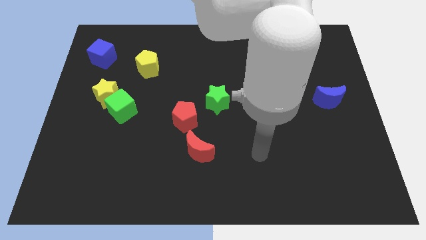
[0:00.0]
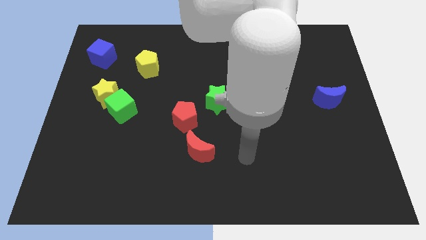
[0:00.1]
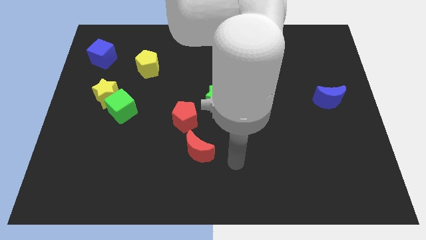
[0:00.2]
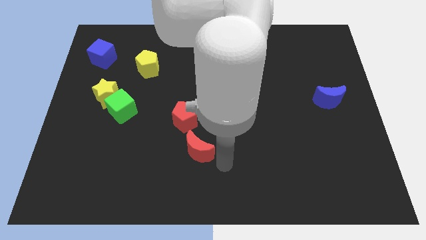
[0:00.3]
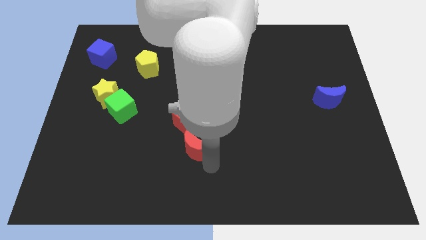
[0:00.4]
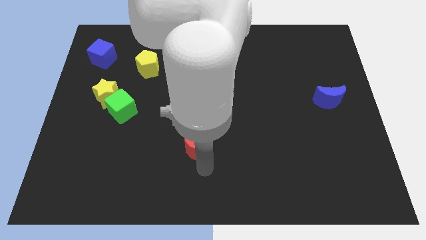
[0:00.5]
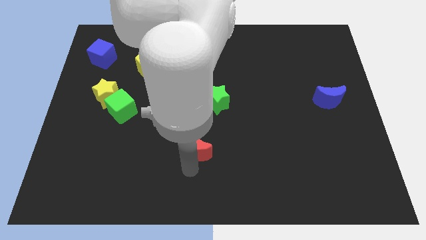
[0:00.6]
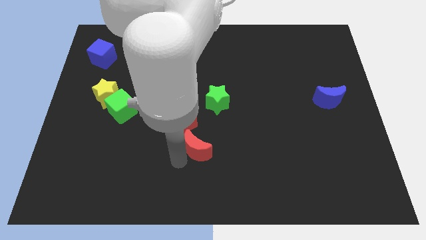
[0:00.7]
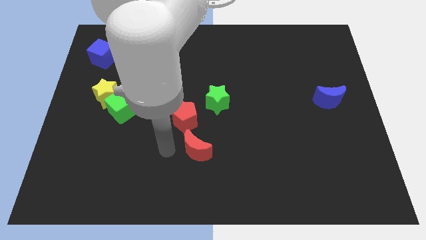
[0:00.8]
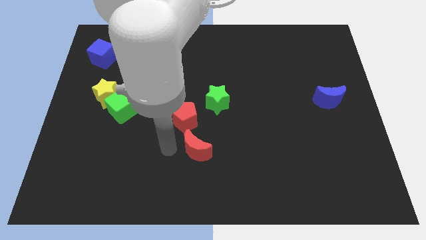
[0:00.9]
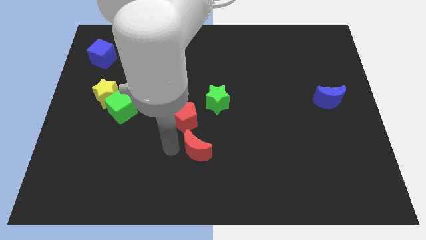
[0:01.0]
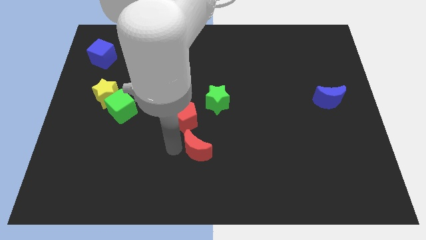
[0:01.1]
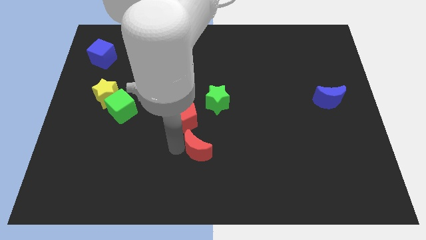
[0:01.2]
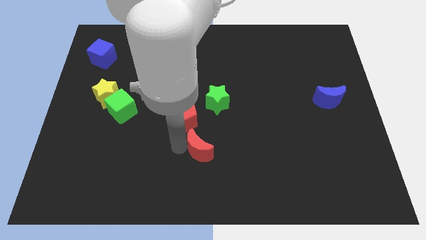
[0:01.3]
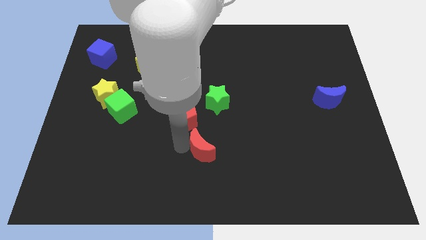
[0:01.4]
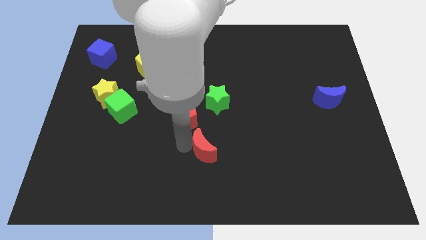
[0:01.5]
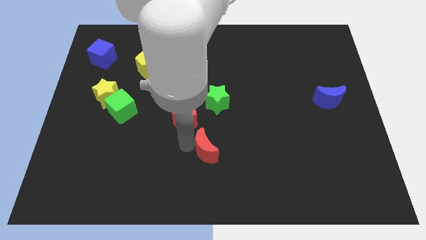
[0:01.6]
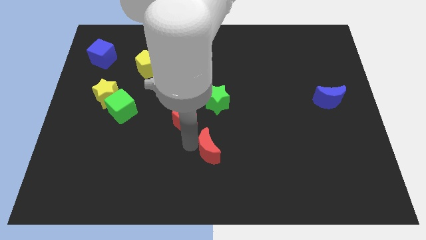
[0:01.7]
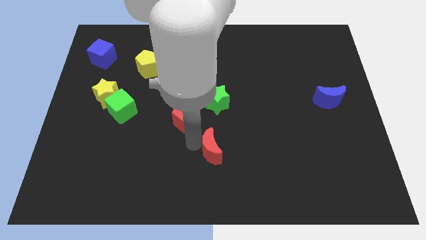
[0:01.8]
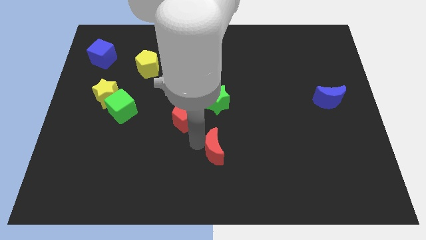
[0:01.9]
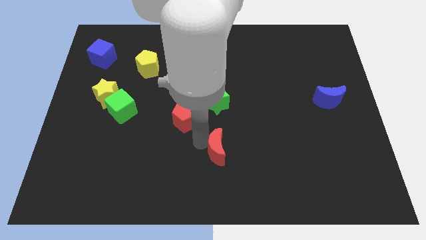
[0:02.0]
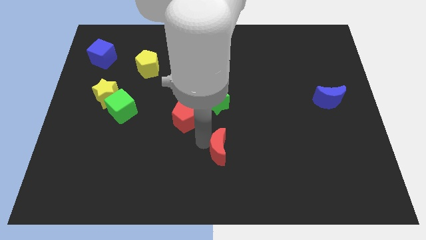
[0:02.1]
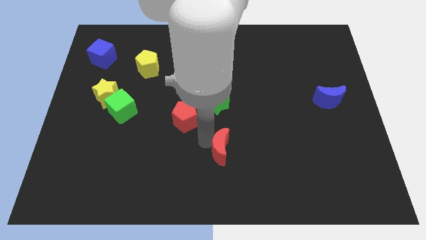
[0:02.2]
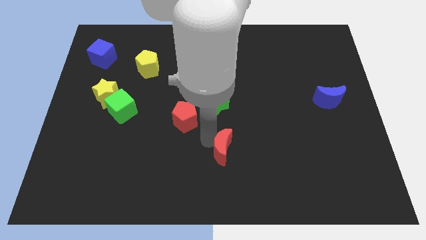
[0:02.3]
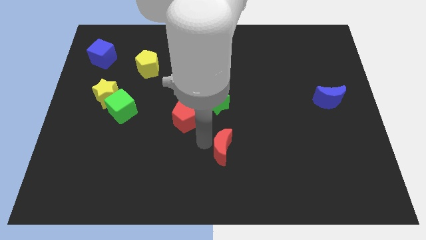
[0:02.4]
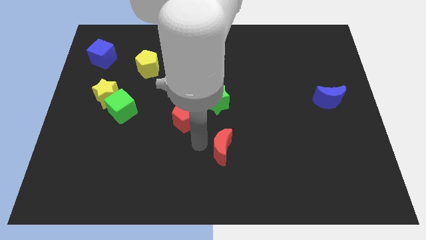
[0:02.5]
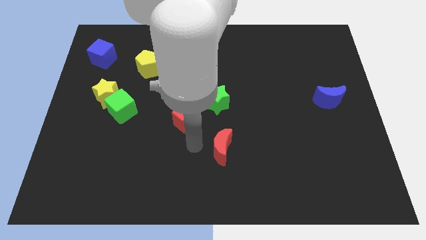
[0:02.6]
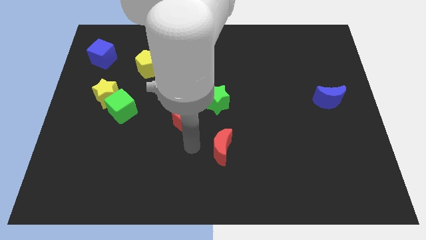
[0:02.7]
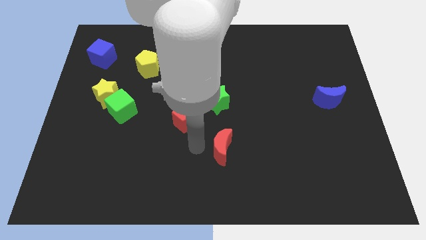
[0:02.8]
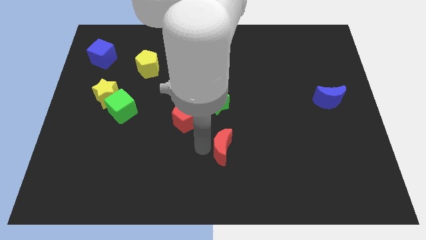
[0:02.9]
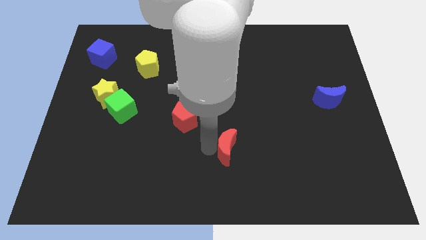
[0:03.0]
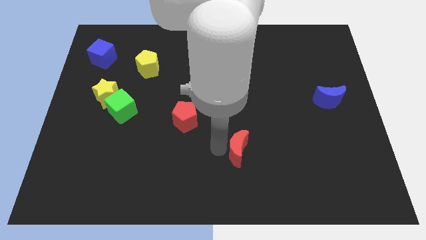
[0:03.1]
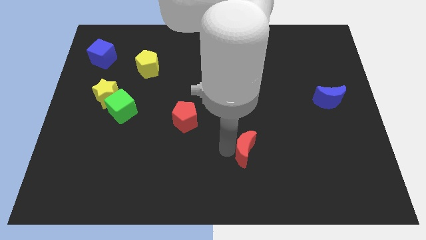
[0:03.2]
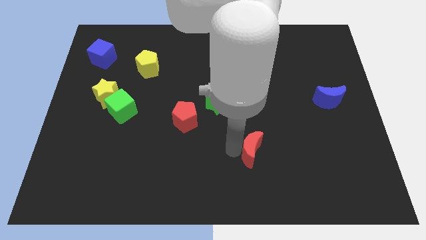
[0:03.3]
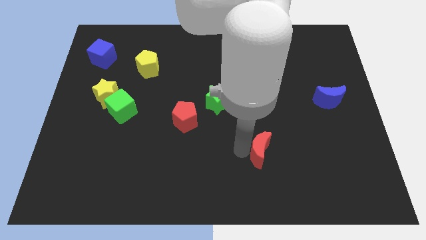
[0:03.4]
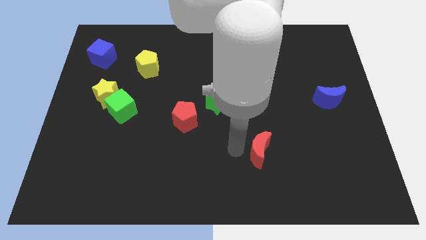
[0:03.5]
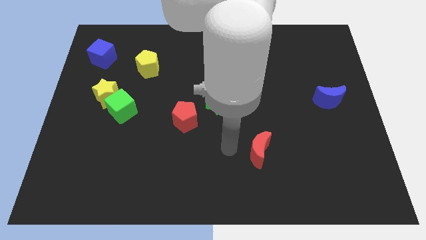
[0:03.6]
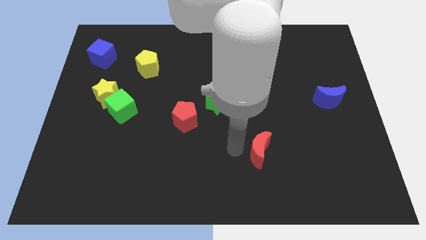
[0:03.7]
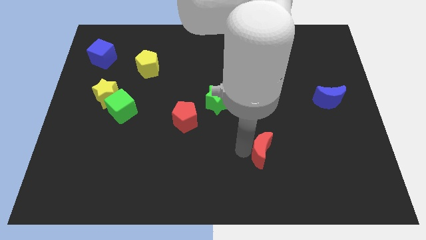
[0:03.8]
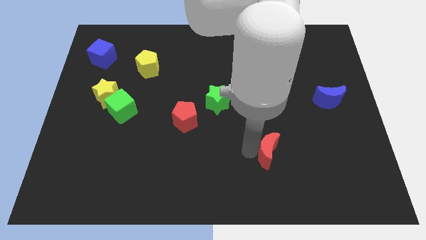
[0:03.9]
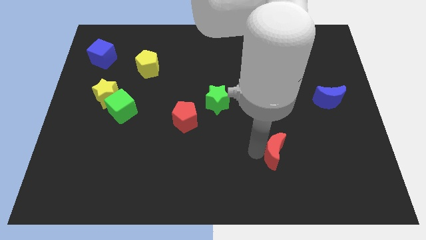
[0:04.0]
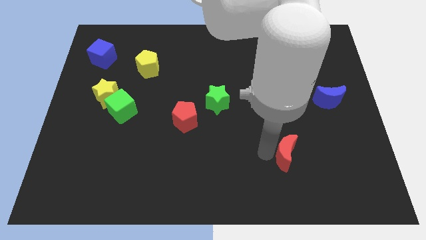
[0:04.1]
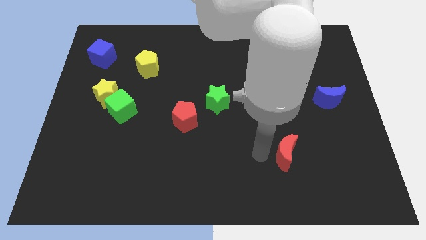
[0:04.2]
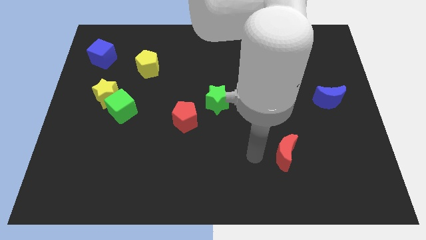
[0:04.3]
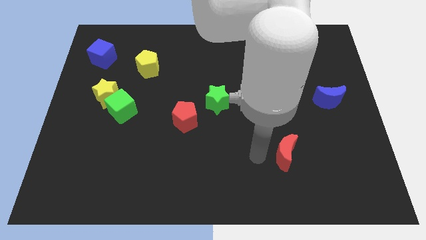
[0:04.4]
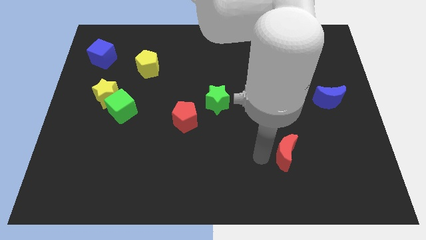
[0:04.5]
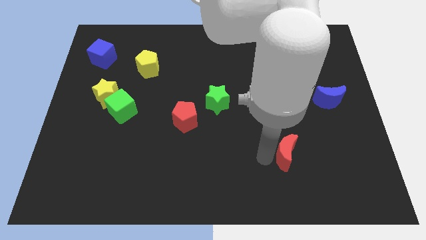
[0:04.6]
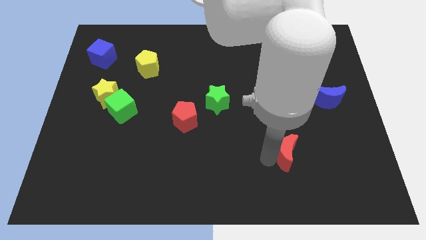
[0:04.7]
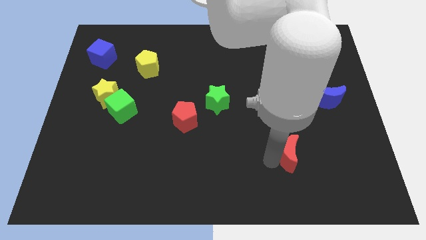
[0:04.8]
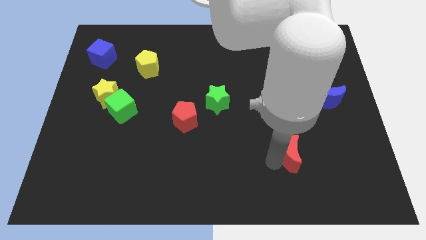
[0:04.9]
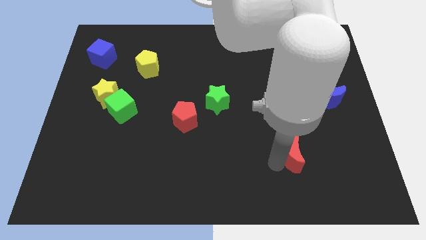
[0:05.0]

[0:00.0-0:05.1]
slide the red moon right

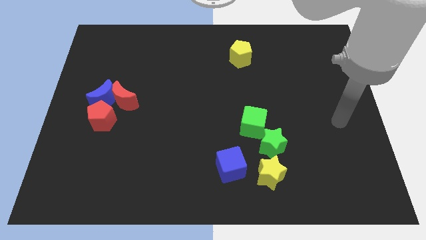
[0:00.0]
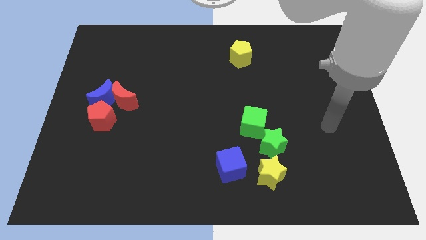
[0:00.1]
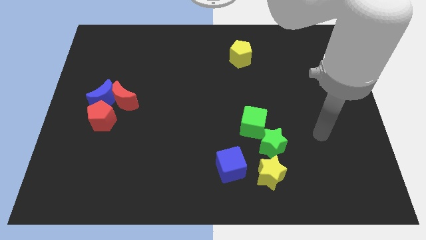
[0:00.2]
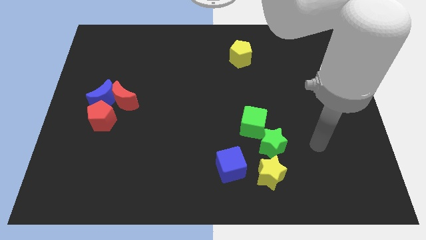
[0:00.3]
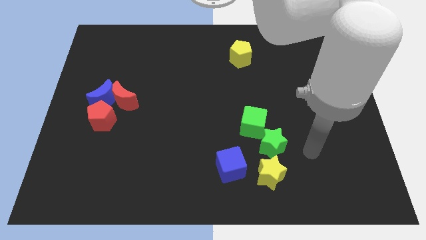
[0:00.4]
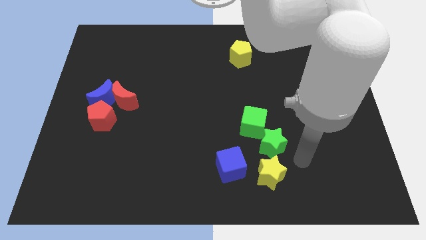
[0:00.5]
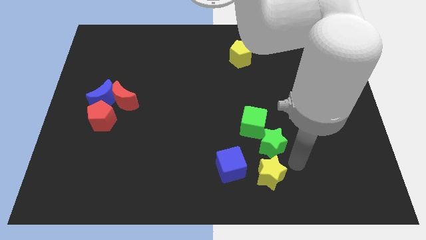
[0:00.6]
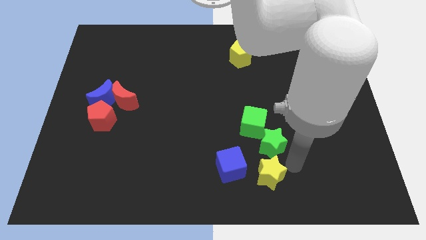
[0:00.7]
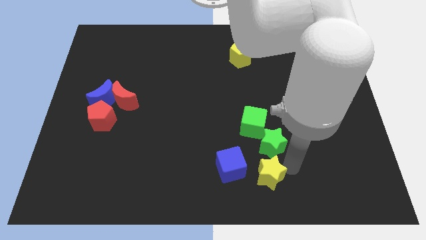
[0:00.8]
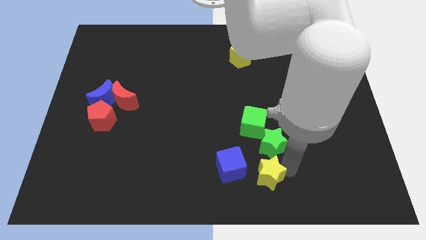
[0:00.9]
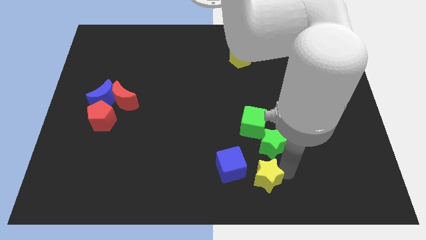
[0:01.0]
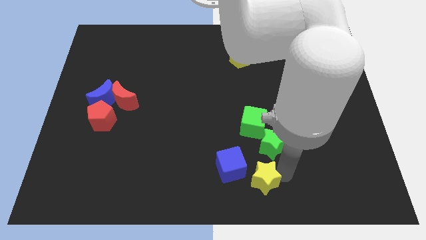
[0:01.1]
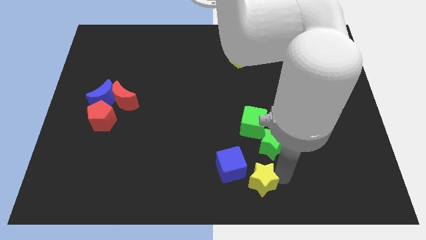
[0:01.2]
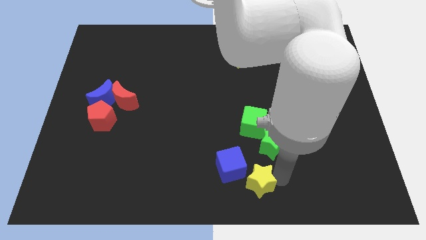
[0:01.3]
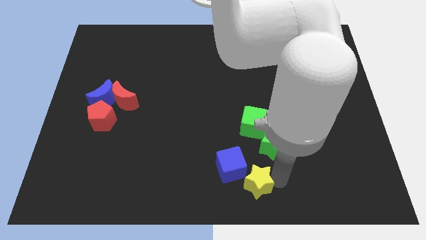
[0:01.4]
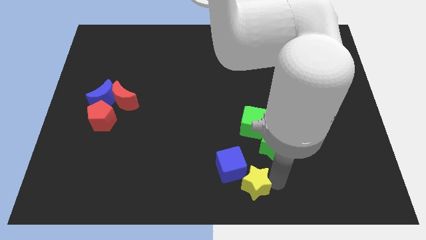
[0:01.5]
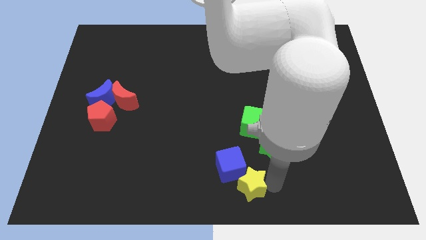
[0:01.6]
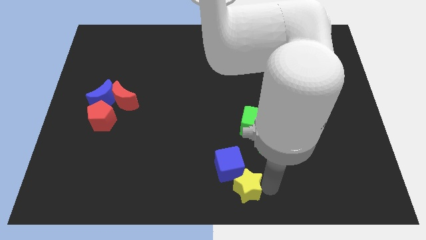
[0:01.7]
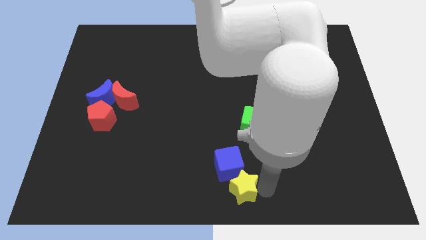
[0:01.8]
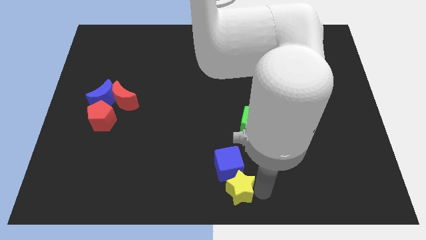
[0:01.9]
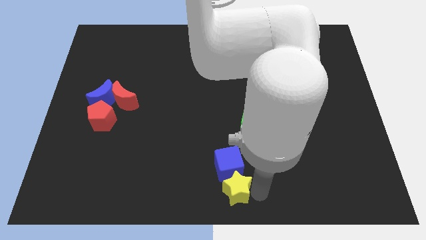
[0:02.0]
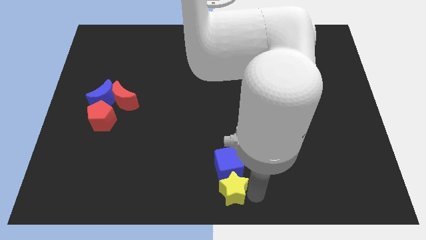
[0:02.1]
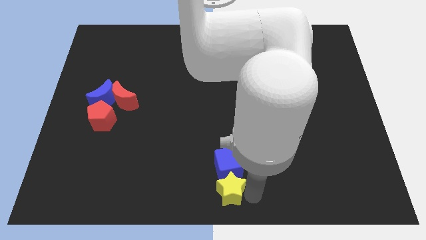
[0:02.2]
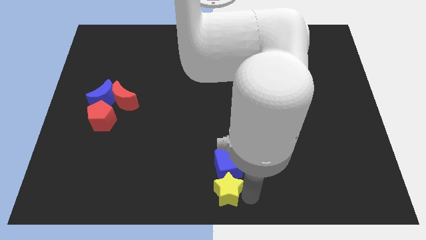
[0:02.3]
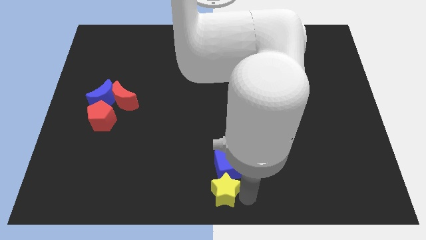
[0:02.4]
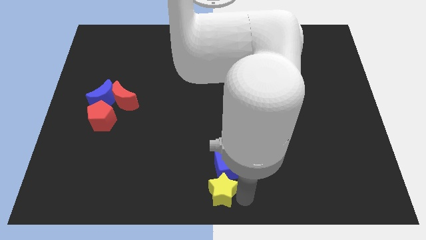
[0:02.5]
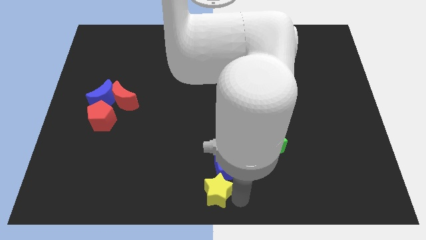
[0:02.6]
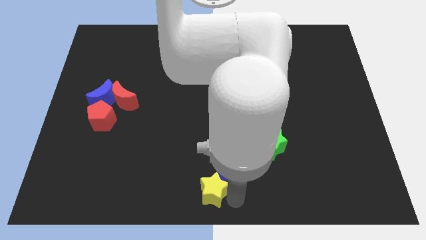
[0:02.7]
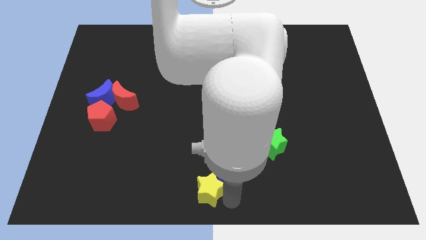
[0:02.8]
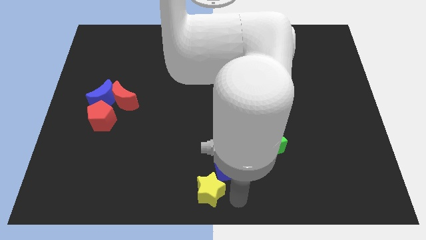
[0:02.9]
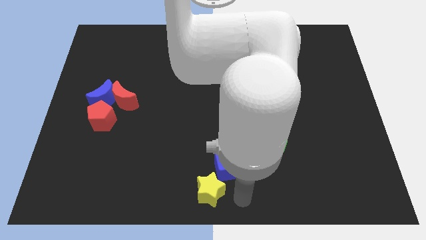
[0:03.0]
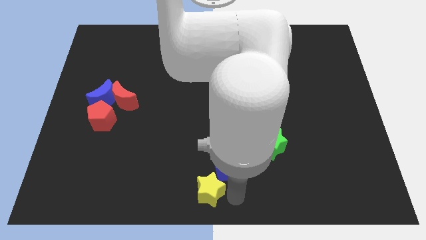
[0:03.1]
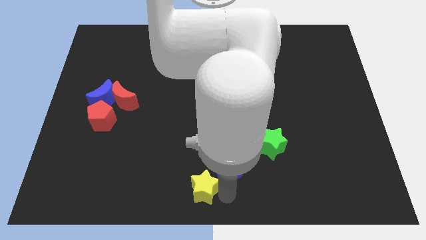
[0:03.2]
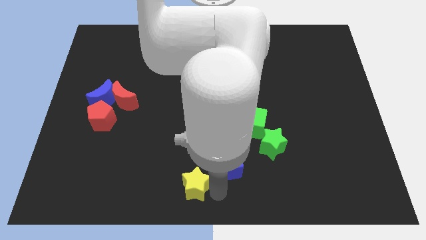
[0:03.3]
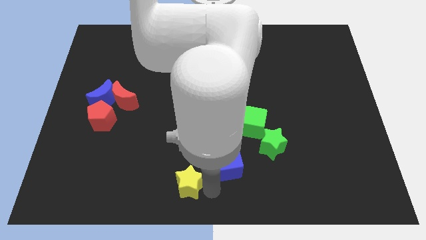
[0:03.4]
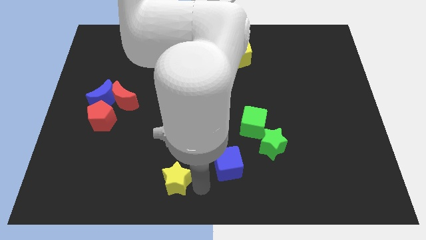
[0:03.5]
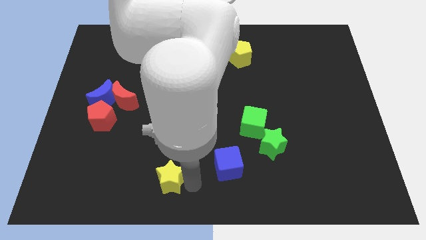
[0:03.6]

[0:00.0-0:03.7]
push the yellow star to the left
